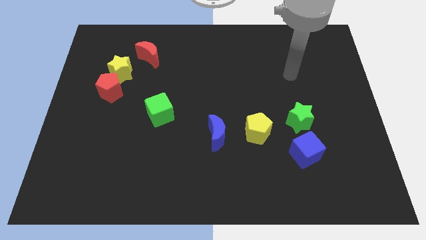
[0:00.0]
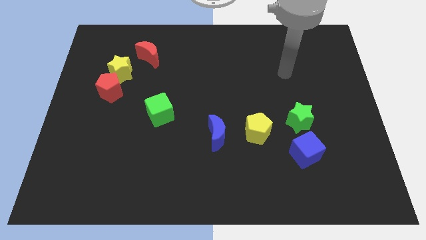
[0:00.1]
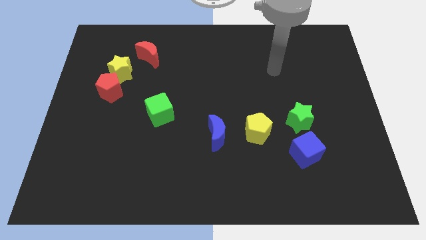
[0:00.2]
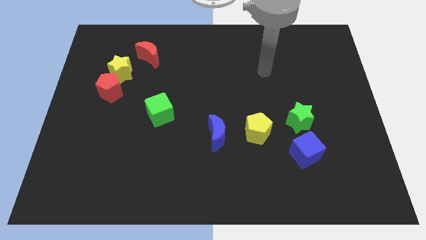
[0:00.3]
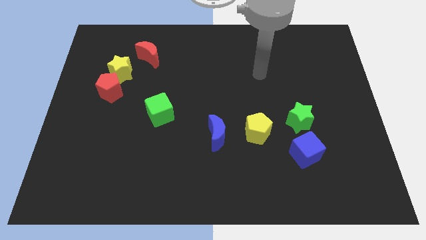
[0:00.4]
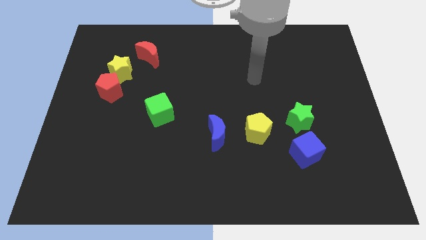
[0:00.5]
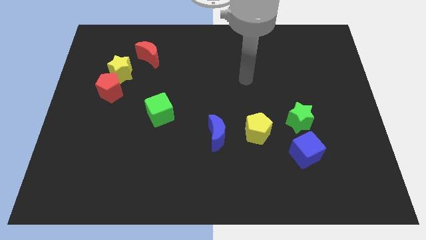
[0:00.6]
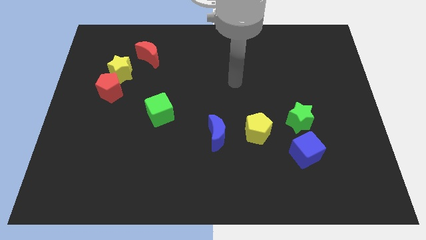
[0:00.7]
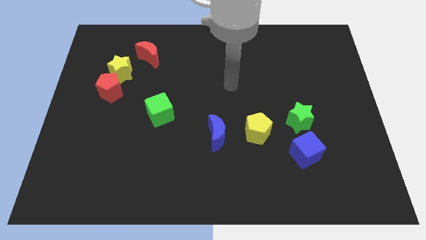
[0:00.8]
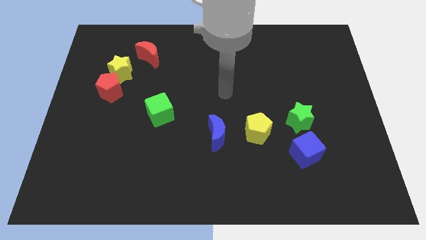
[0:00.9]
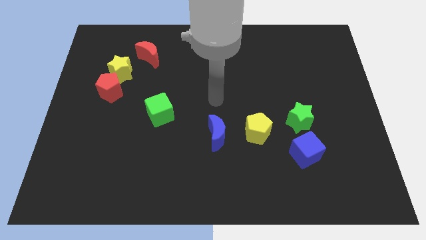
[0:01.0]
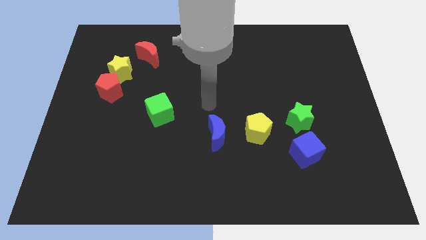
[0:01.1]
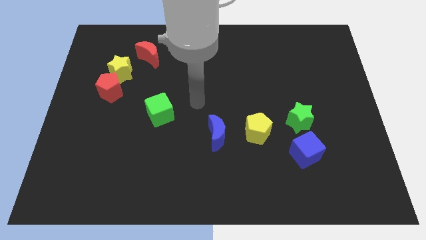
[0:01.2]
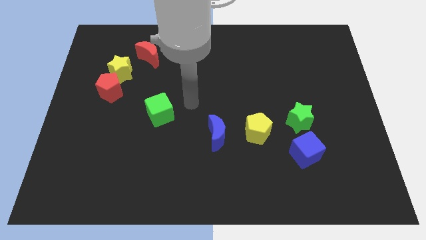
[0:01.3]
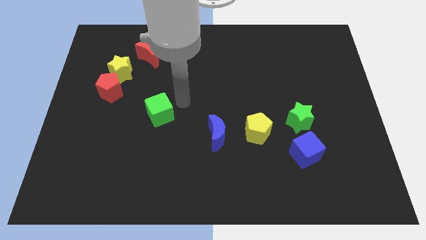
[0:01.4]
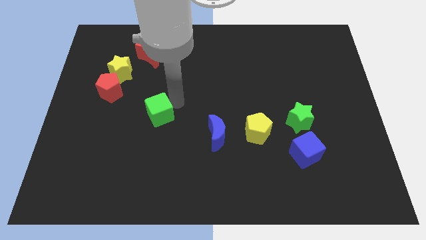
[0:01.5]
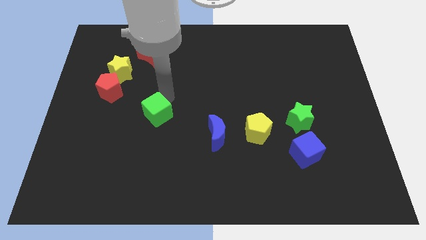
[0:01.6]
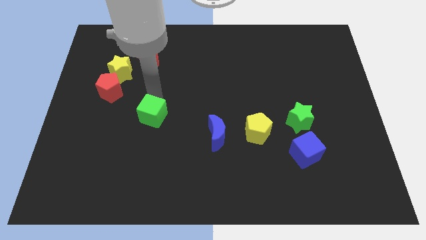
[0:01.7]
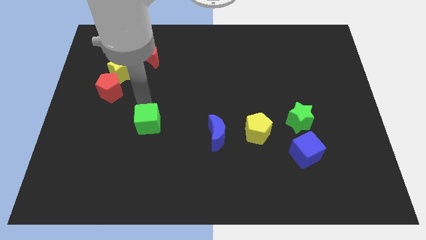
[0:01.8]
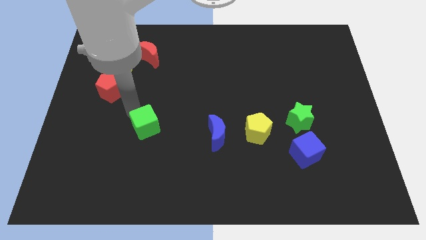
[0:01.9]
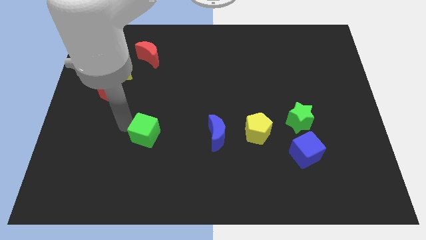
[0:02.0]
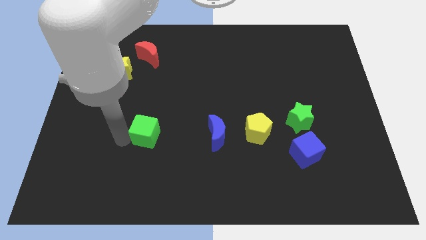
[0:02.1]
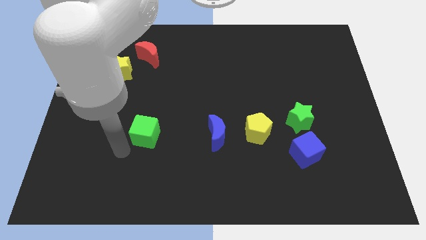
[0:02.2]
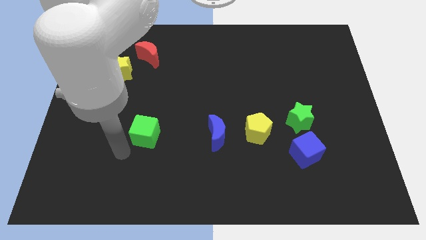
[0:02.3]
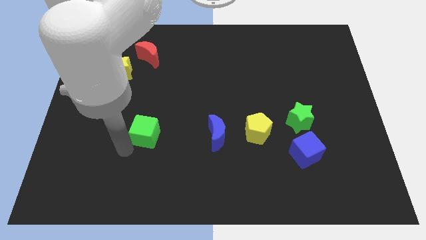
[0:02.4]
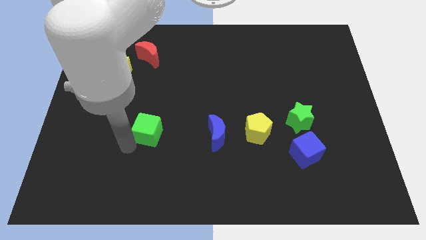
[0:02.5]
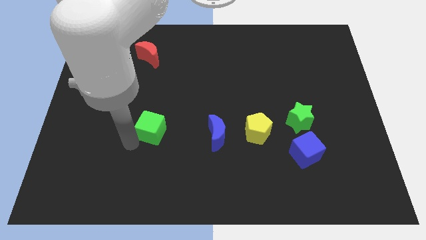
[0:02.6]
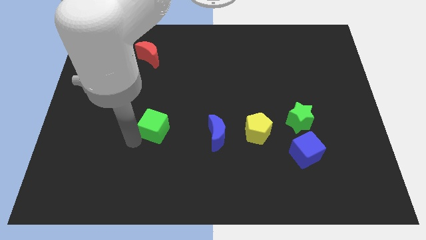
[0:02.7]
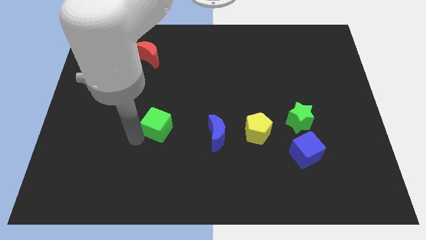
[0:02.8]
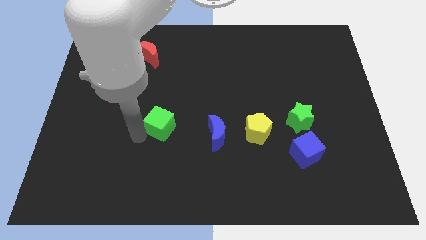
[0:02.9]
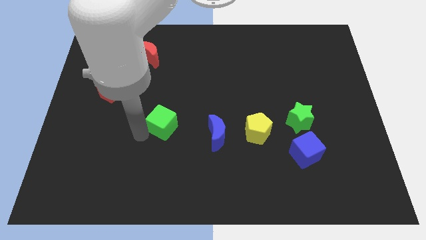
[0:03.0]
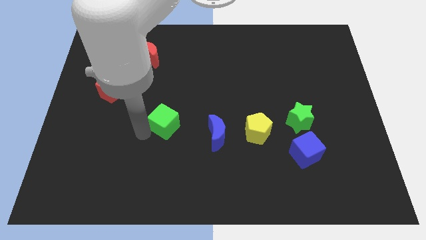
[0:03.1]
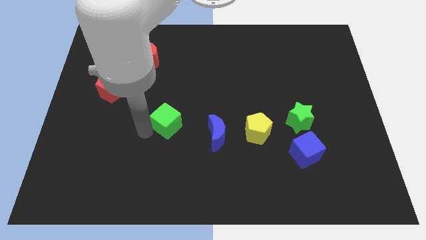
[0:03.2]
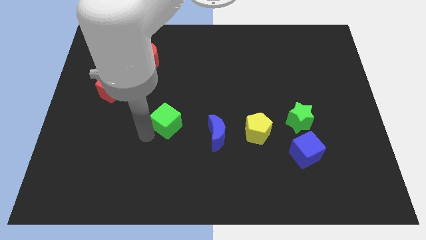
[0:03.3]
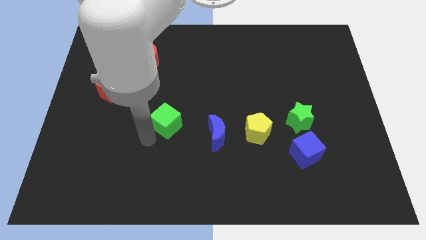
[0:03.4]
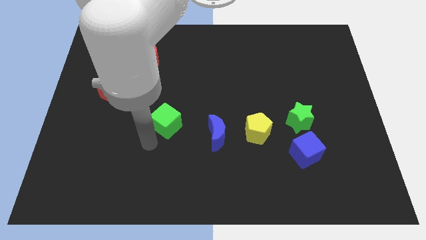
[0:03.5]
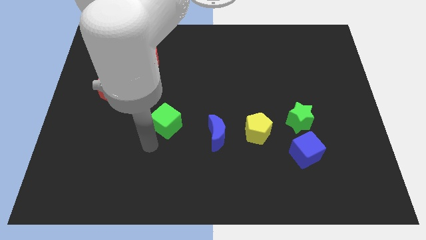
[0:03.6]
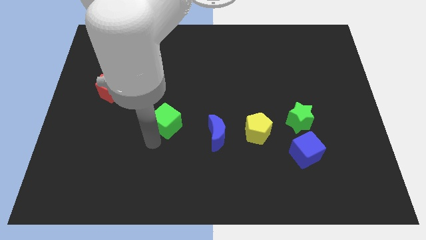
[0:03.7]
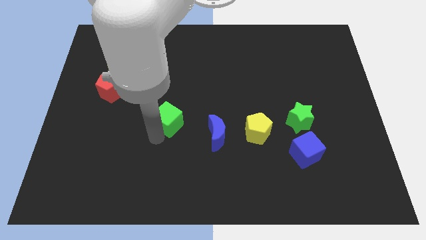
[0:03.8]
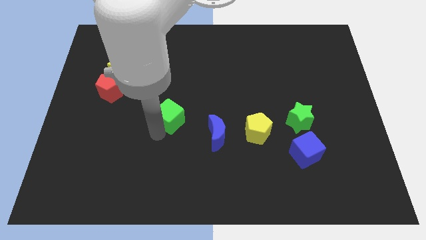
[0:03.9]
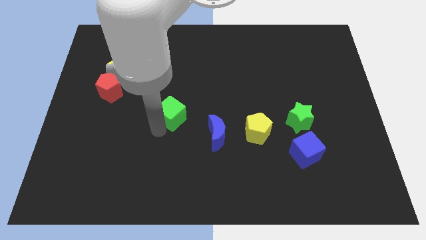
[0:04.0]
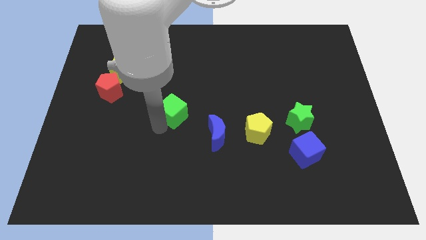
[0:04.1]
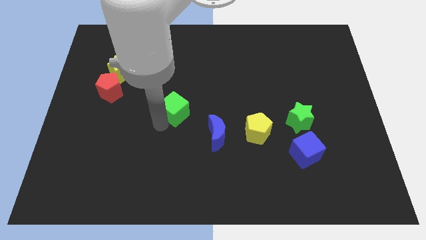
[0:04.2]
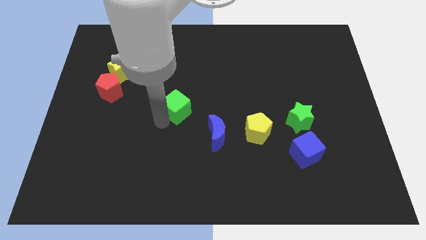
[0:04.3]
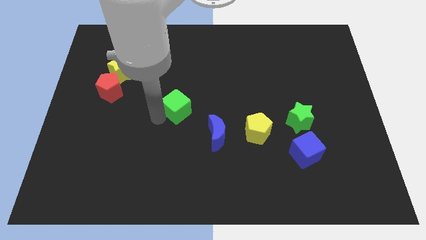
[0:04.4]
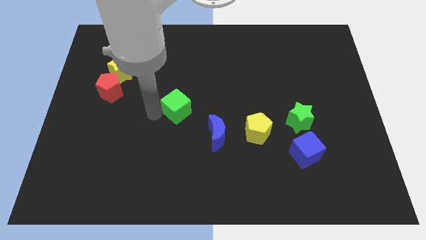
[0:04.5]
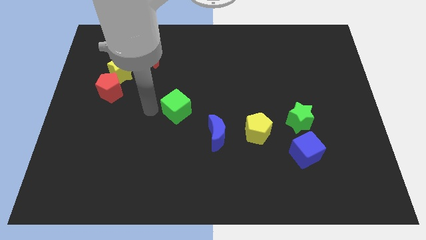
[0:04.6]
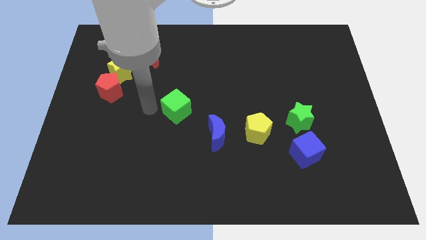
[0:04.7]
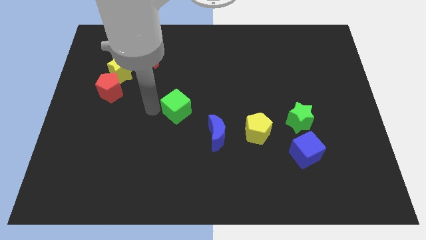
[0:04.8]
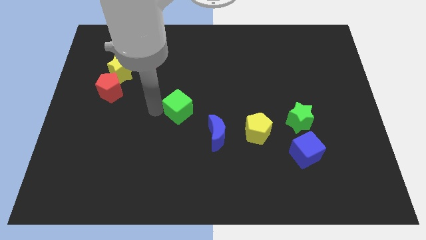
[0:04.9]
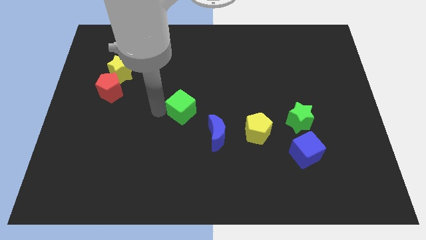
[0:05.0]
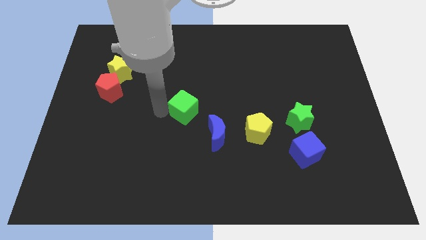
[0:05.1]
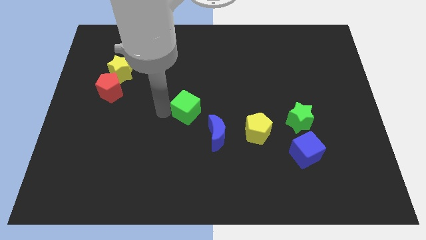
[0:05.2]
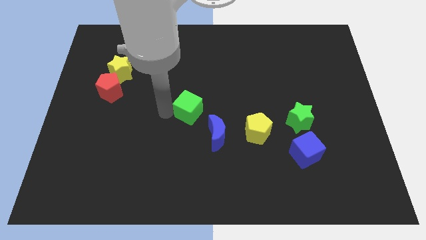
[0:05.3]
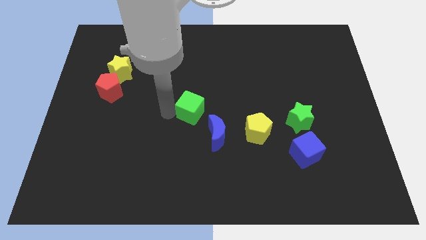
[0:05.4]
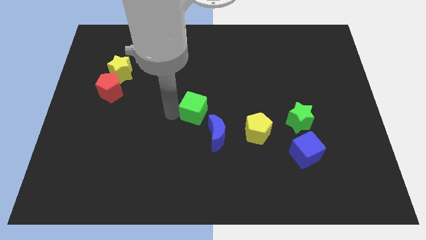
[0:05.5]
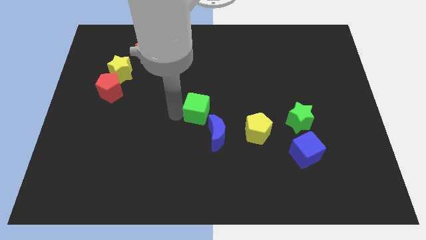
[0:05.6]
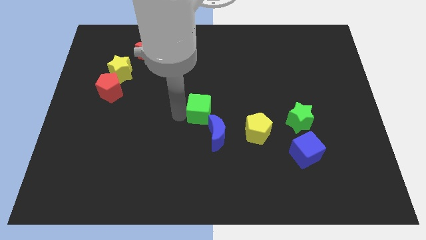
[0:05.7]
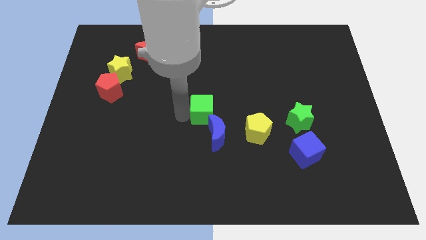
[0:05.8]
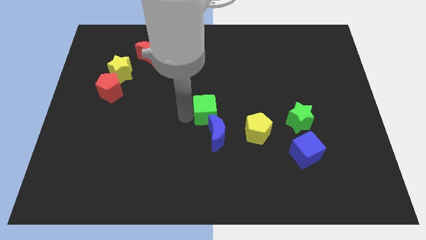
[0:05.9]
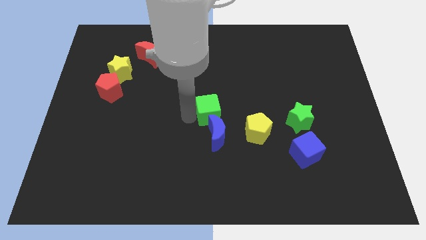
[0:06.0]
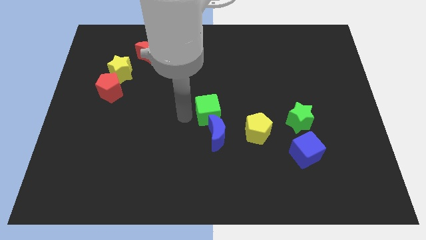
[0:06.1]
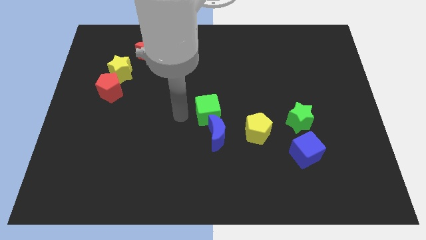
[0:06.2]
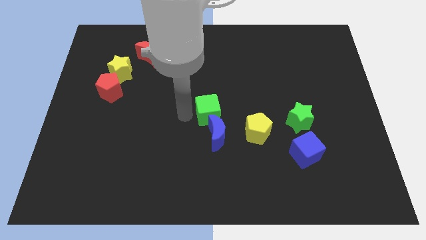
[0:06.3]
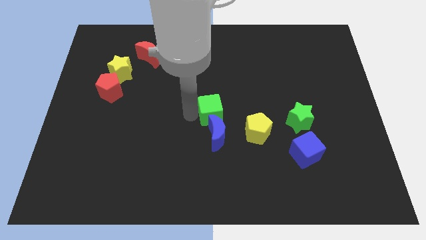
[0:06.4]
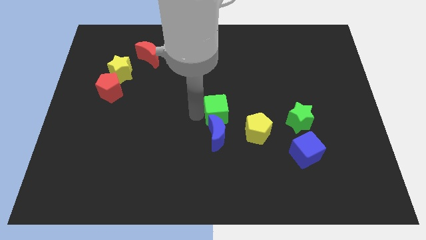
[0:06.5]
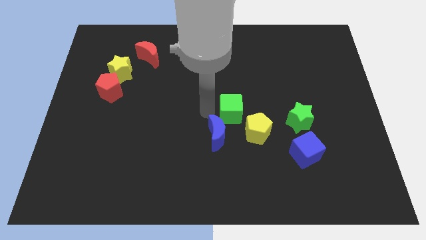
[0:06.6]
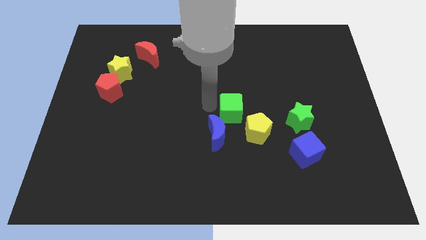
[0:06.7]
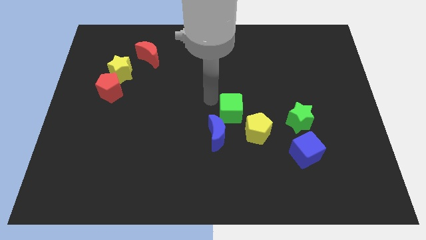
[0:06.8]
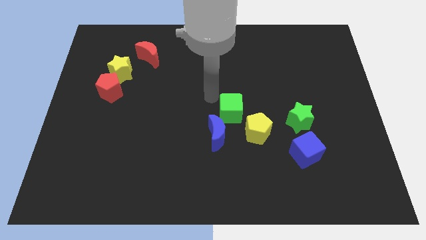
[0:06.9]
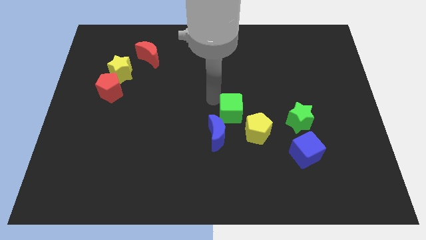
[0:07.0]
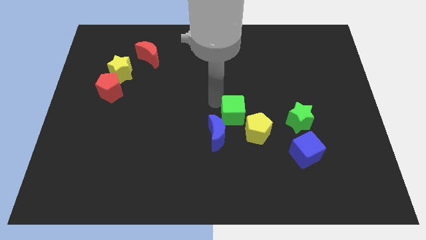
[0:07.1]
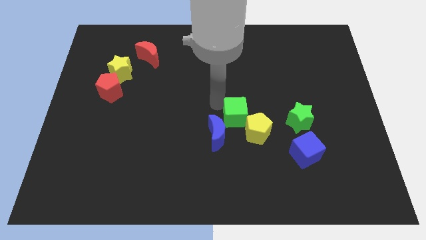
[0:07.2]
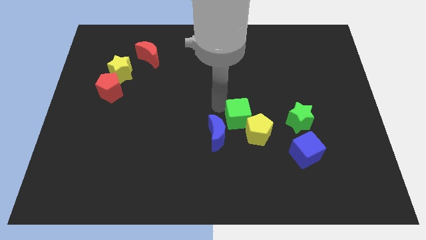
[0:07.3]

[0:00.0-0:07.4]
push the green cube to the yellow pentagon
